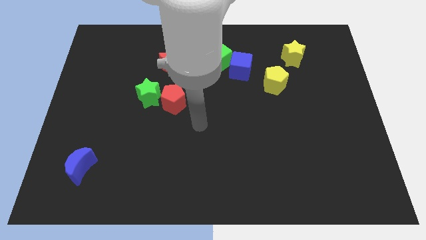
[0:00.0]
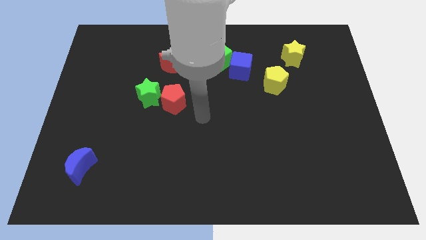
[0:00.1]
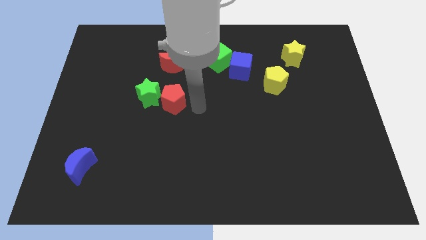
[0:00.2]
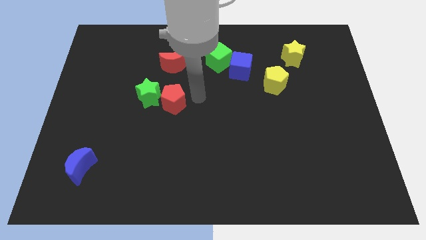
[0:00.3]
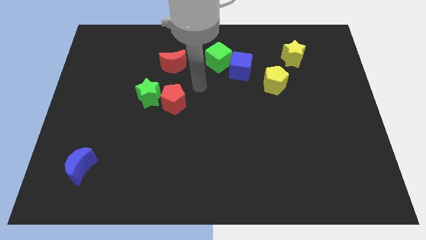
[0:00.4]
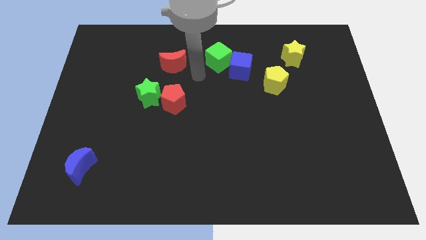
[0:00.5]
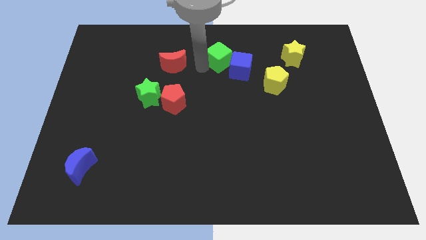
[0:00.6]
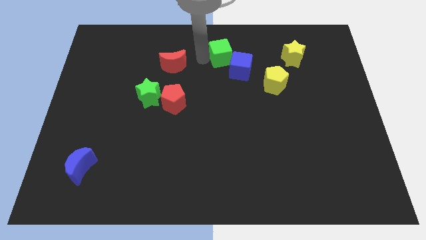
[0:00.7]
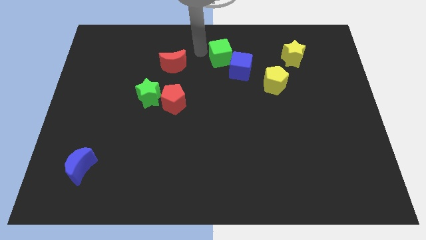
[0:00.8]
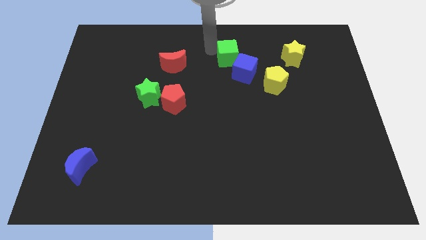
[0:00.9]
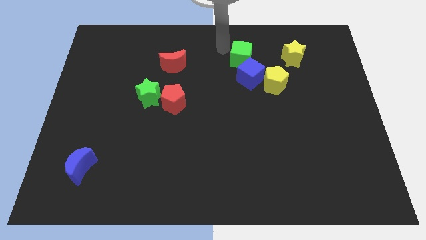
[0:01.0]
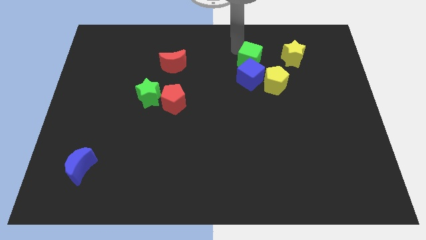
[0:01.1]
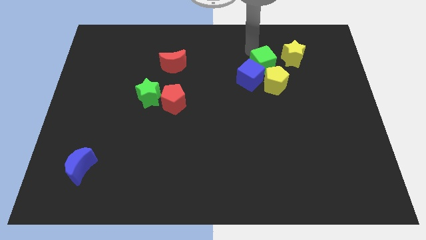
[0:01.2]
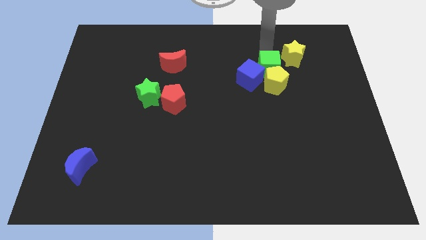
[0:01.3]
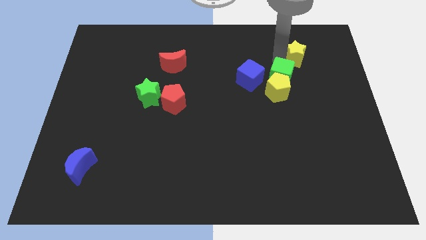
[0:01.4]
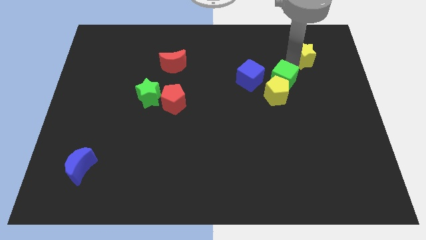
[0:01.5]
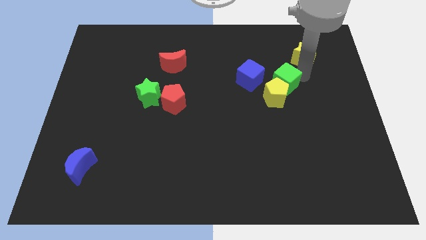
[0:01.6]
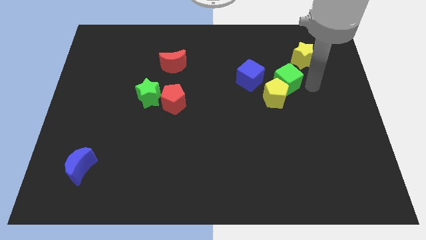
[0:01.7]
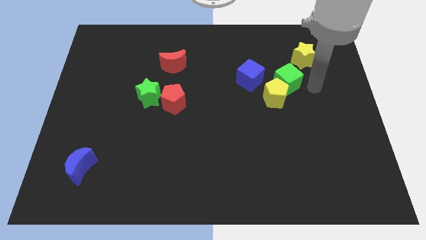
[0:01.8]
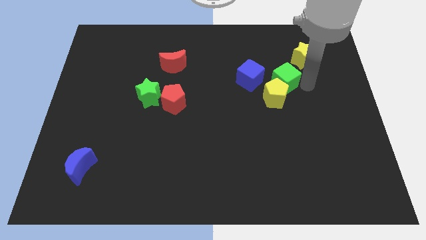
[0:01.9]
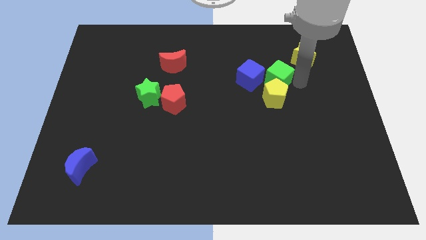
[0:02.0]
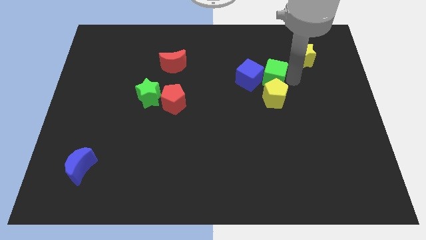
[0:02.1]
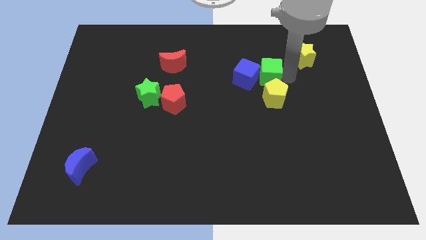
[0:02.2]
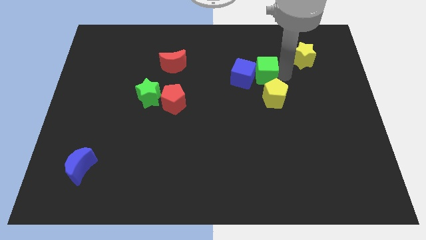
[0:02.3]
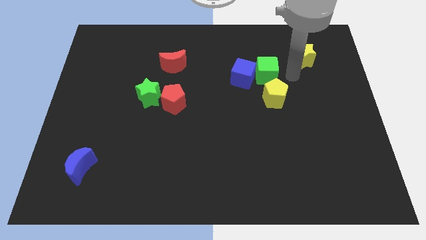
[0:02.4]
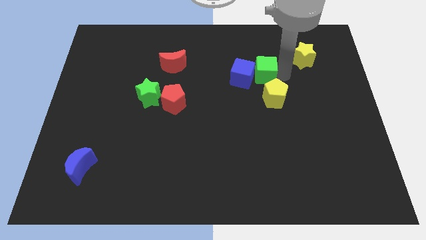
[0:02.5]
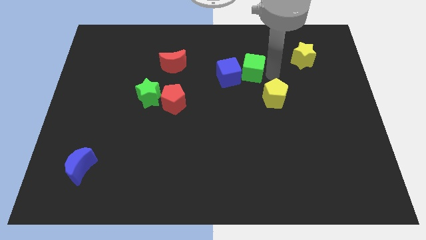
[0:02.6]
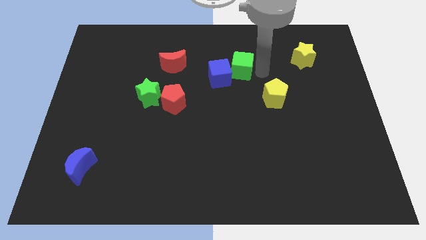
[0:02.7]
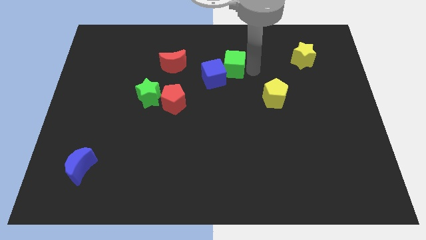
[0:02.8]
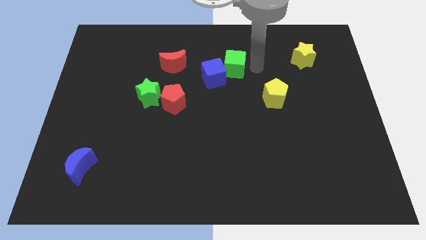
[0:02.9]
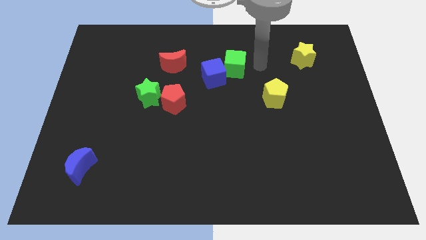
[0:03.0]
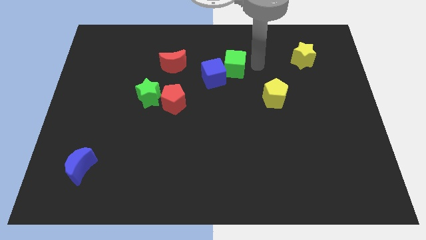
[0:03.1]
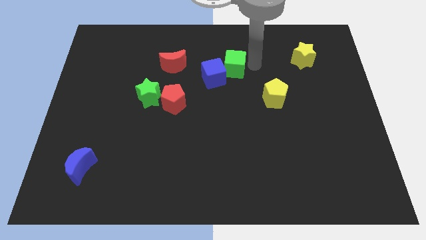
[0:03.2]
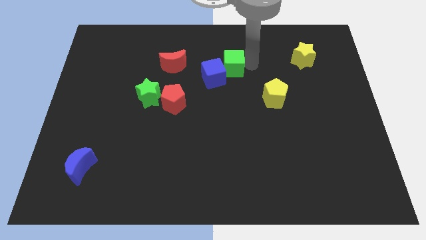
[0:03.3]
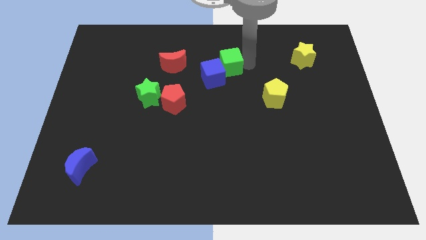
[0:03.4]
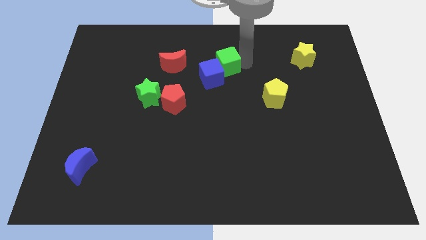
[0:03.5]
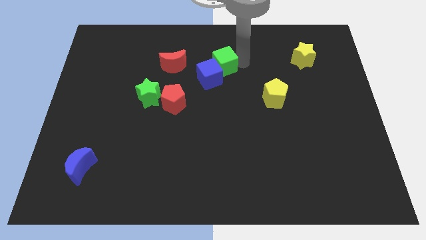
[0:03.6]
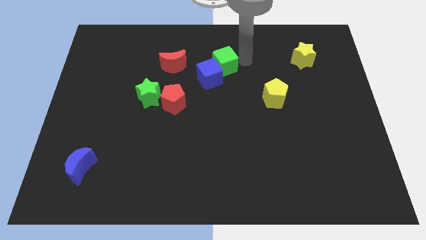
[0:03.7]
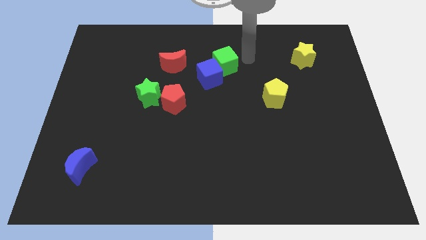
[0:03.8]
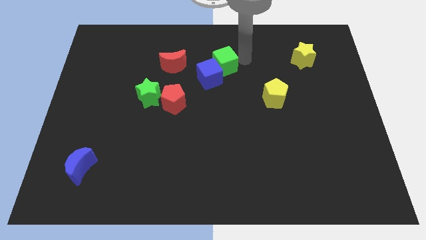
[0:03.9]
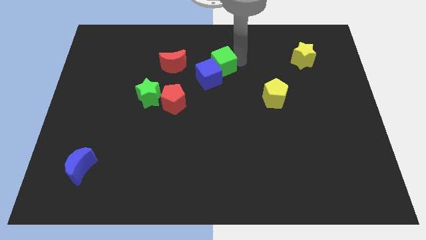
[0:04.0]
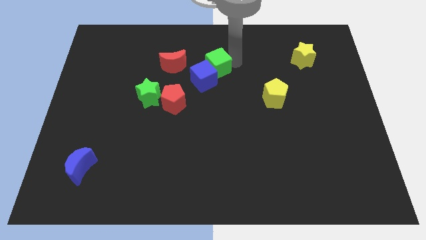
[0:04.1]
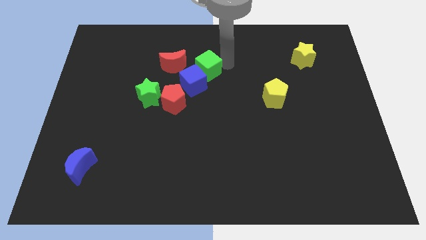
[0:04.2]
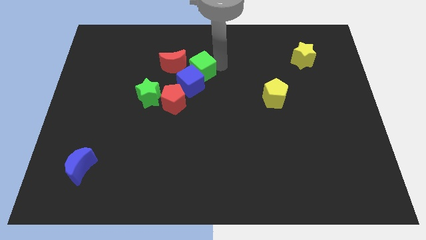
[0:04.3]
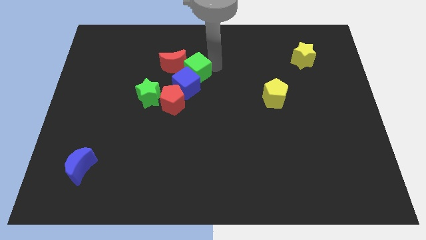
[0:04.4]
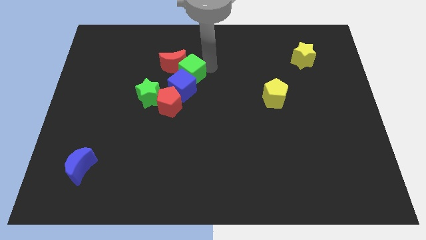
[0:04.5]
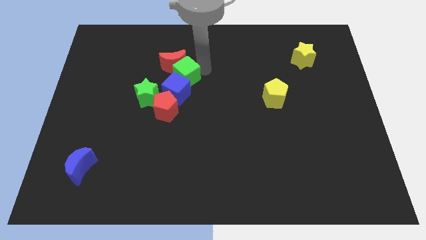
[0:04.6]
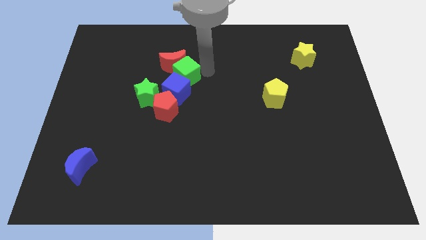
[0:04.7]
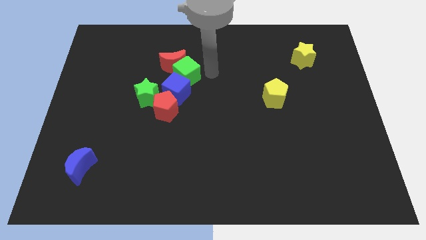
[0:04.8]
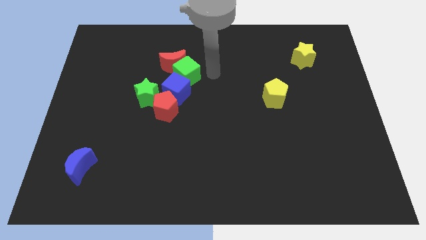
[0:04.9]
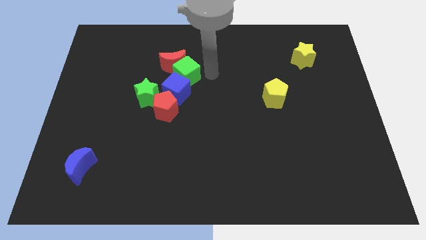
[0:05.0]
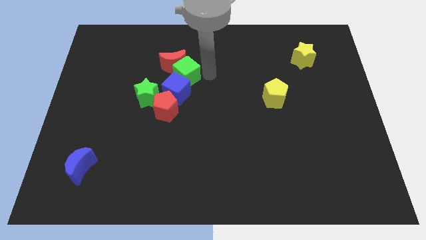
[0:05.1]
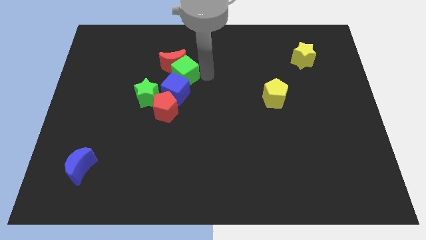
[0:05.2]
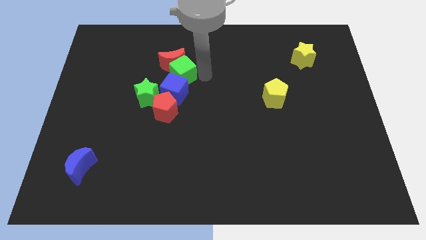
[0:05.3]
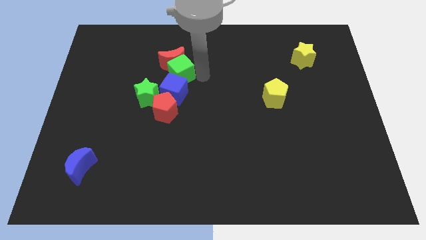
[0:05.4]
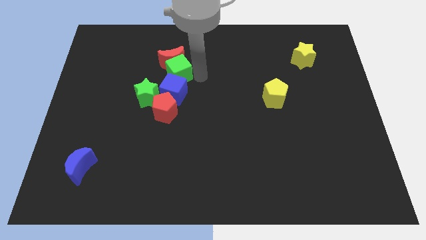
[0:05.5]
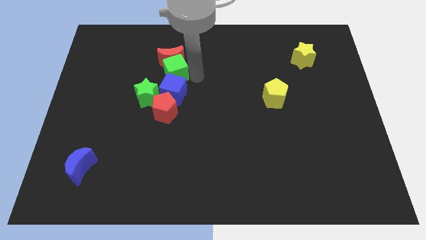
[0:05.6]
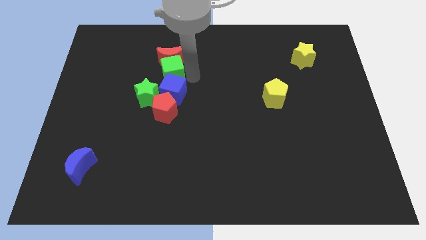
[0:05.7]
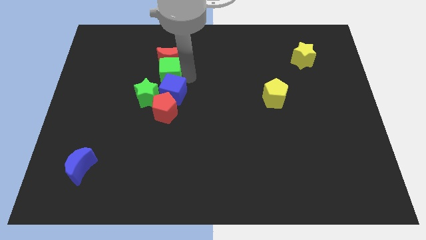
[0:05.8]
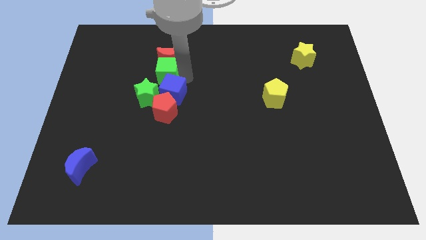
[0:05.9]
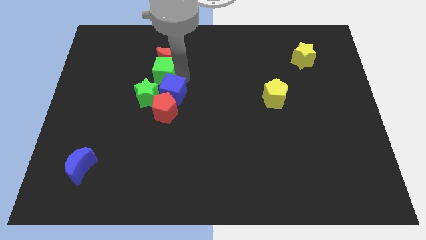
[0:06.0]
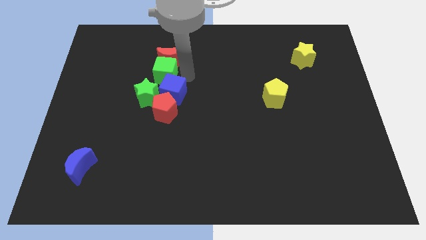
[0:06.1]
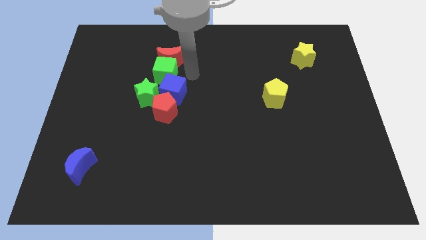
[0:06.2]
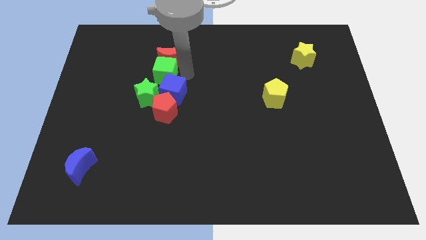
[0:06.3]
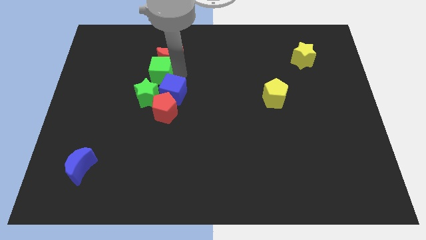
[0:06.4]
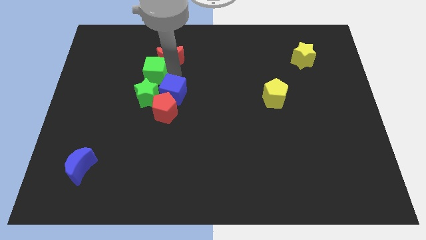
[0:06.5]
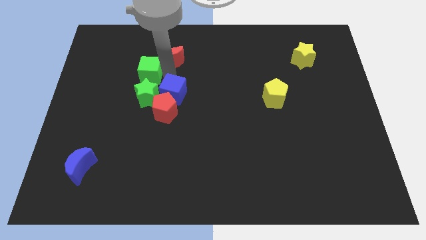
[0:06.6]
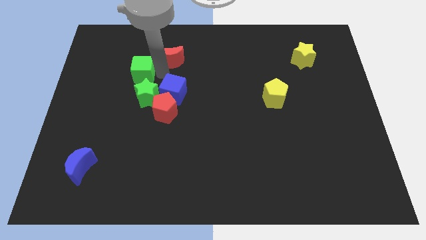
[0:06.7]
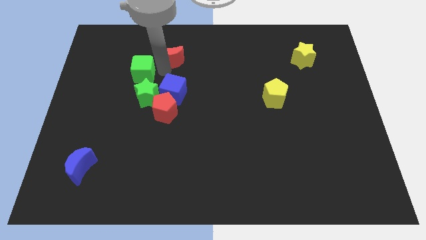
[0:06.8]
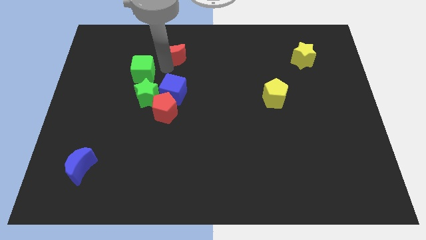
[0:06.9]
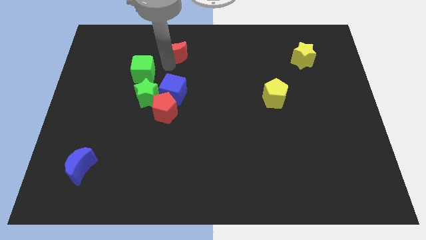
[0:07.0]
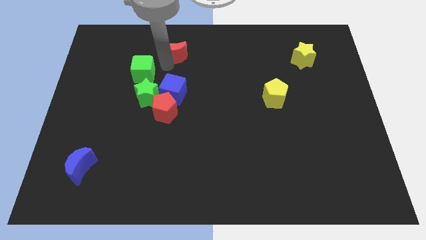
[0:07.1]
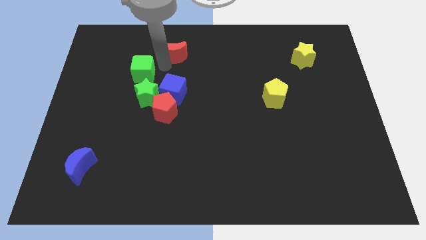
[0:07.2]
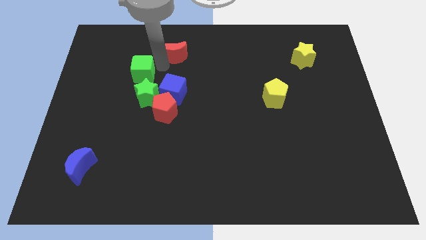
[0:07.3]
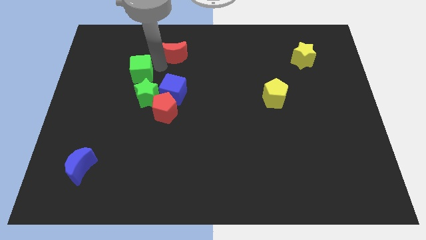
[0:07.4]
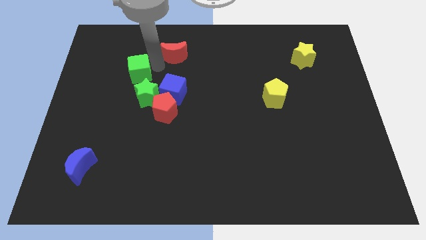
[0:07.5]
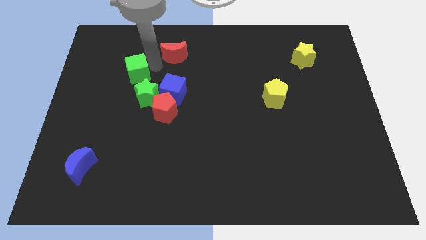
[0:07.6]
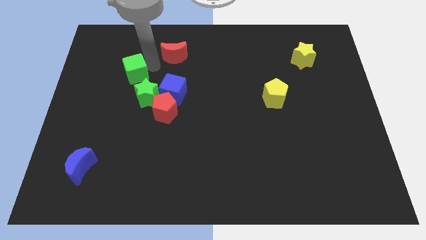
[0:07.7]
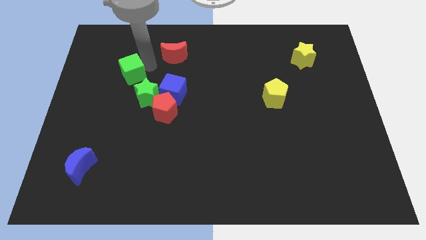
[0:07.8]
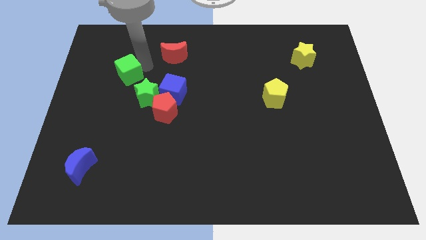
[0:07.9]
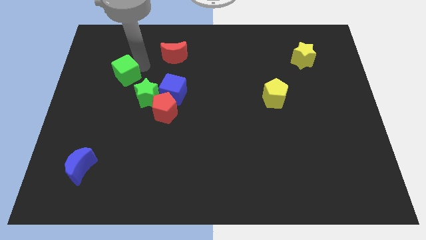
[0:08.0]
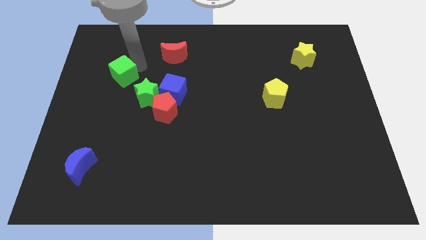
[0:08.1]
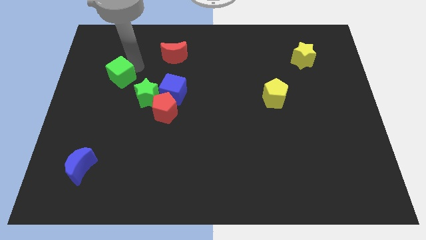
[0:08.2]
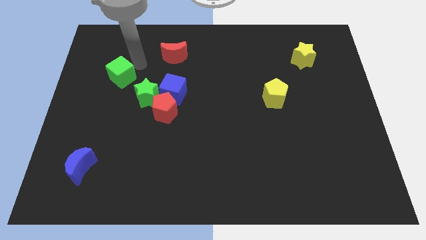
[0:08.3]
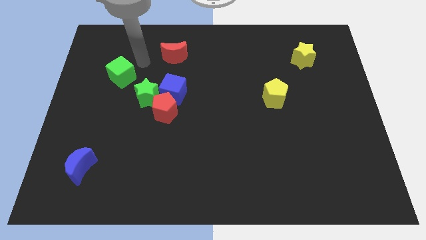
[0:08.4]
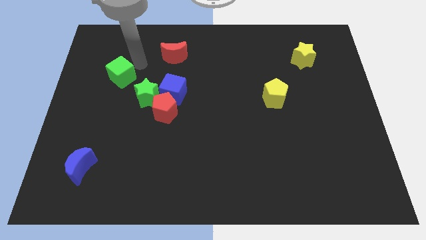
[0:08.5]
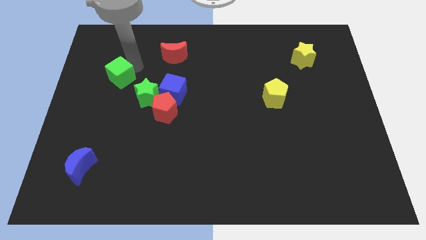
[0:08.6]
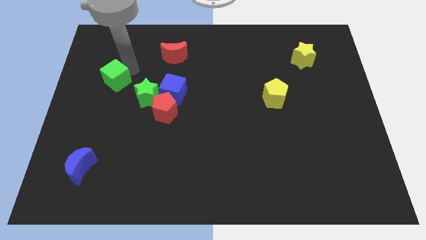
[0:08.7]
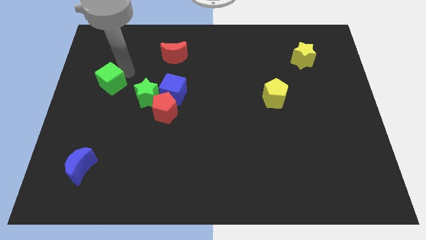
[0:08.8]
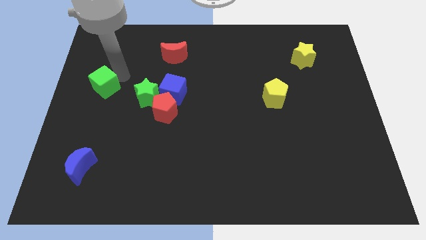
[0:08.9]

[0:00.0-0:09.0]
slide the green cube to the left side
